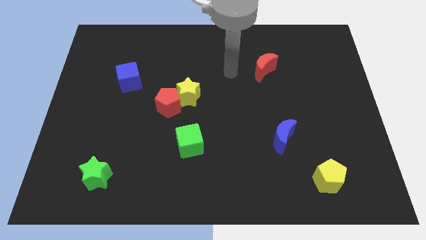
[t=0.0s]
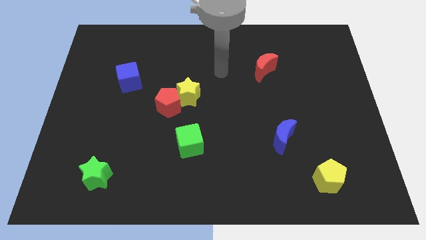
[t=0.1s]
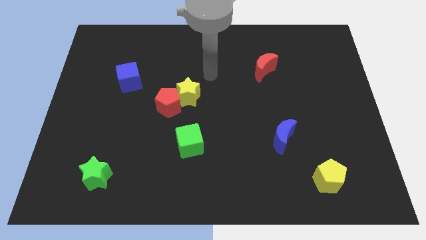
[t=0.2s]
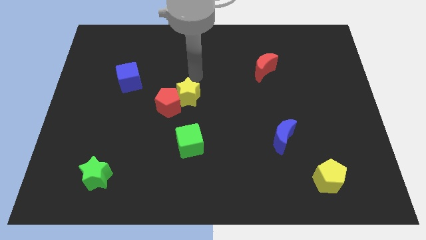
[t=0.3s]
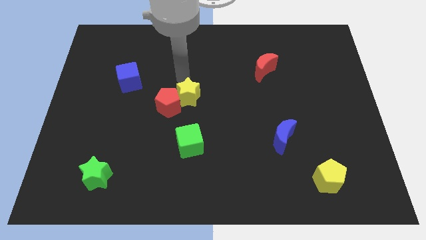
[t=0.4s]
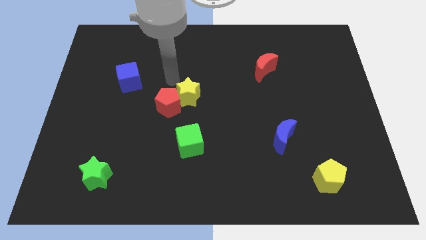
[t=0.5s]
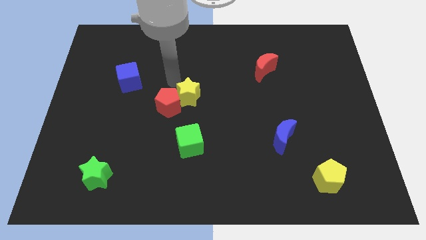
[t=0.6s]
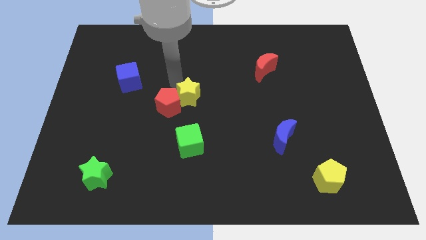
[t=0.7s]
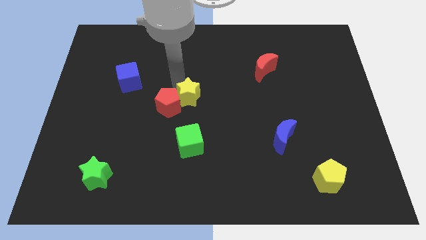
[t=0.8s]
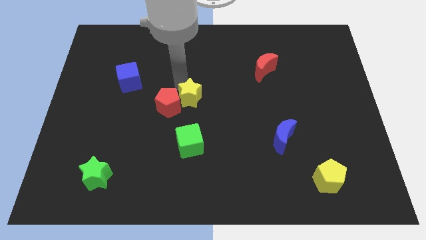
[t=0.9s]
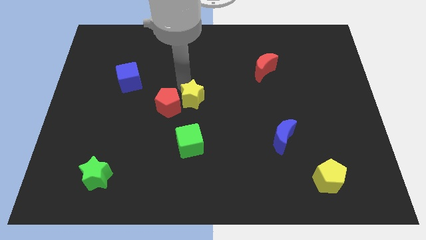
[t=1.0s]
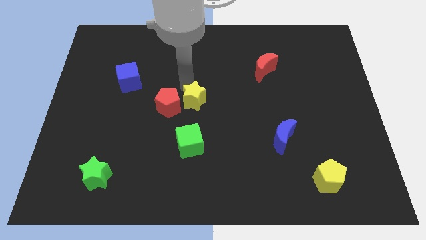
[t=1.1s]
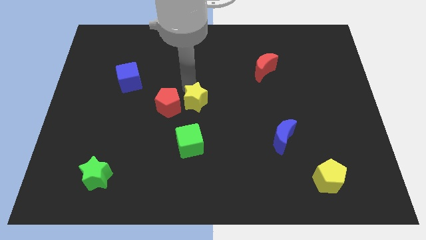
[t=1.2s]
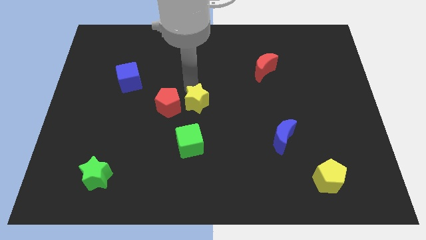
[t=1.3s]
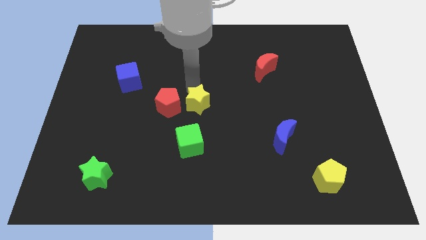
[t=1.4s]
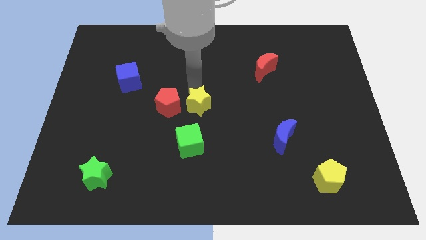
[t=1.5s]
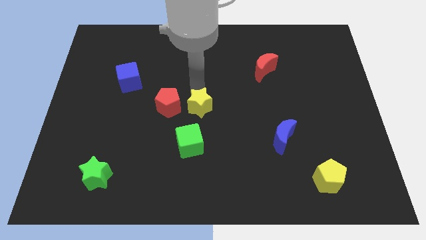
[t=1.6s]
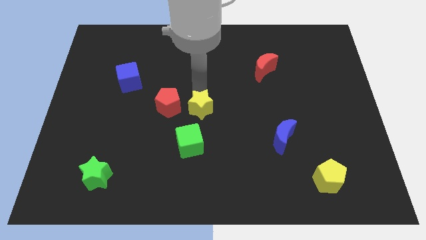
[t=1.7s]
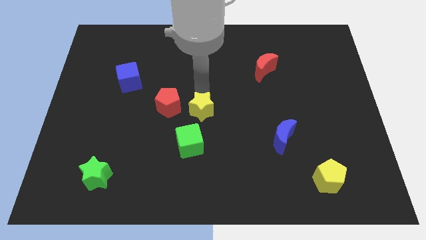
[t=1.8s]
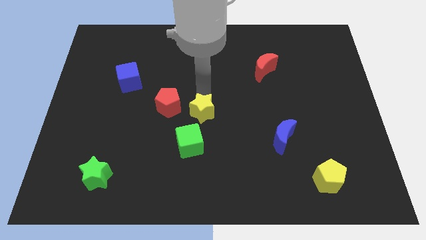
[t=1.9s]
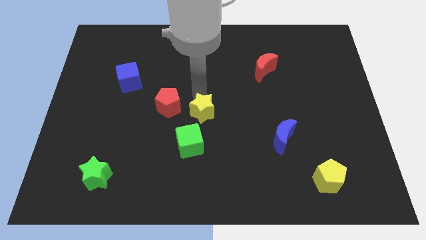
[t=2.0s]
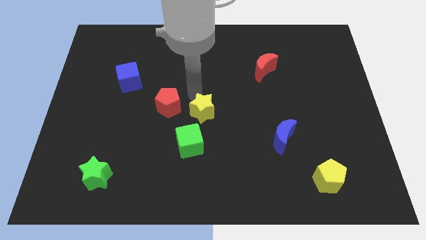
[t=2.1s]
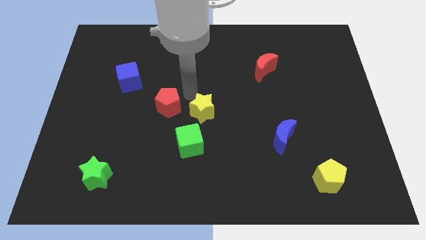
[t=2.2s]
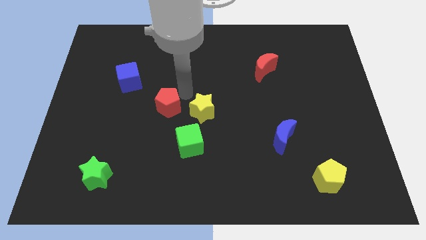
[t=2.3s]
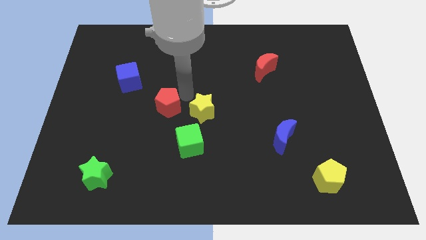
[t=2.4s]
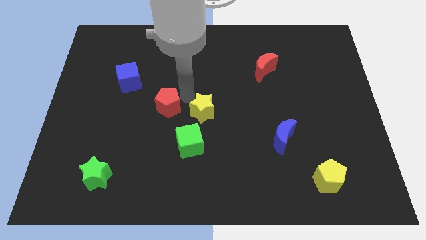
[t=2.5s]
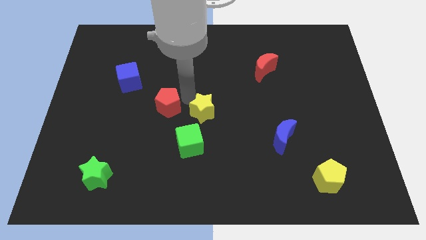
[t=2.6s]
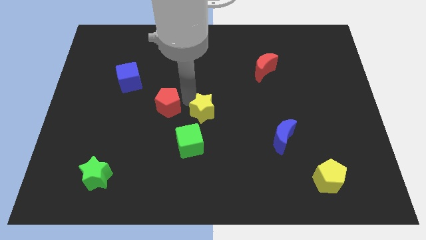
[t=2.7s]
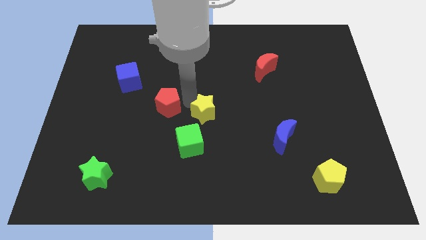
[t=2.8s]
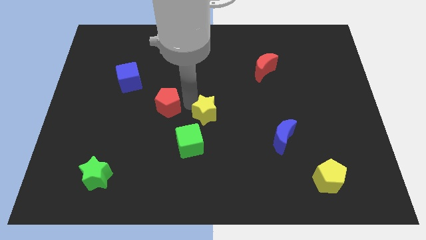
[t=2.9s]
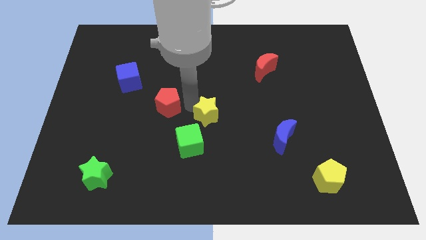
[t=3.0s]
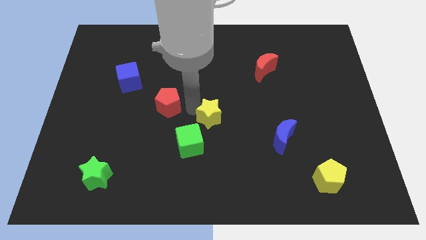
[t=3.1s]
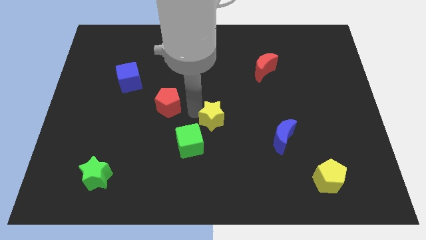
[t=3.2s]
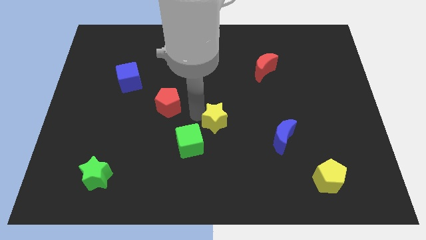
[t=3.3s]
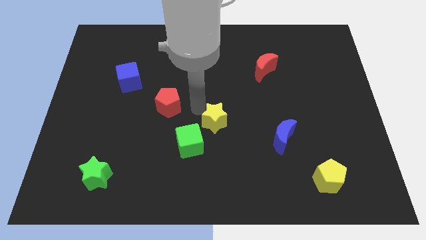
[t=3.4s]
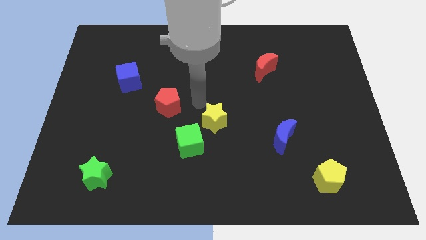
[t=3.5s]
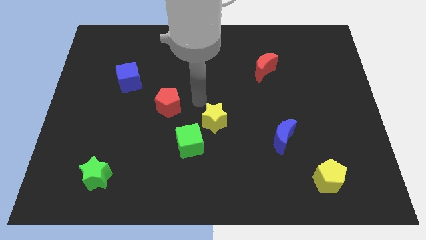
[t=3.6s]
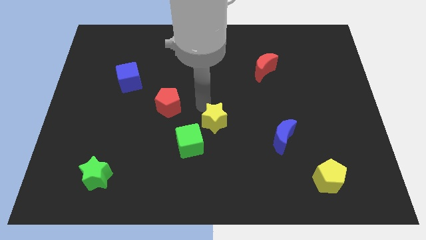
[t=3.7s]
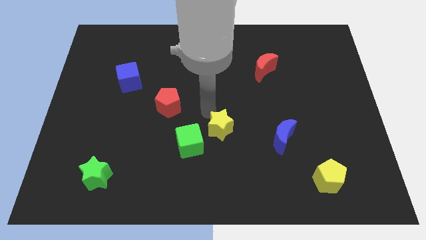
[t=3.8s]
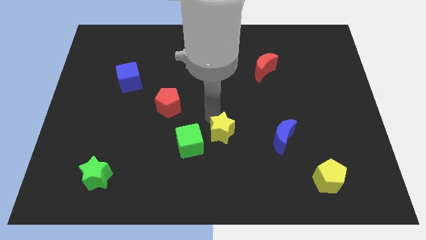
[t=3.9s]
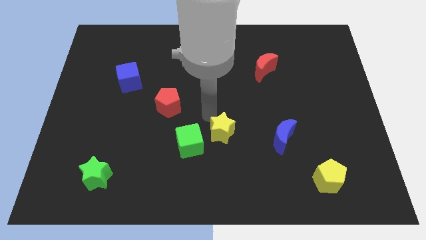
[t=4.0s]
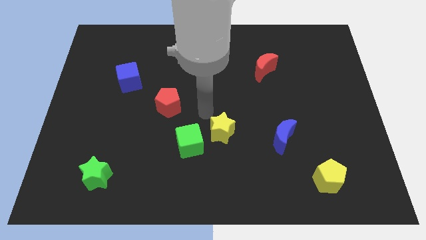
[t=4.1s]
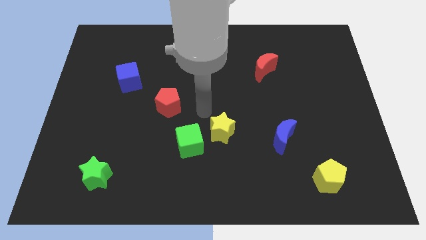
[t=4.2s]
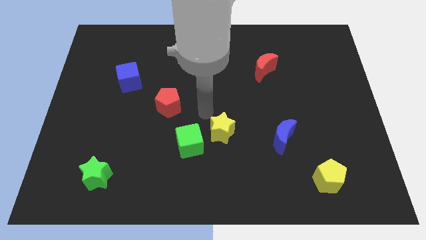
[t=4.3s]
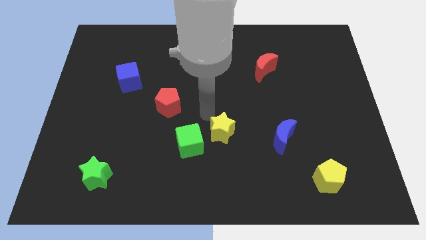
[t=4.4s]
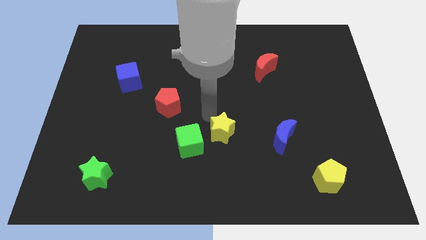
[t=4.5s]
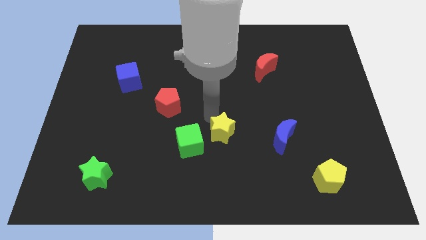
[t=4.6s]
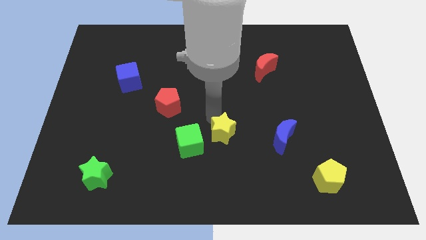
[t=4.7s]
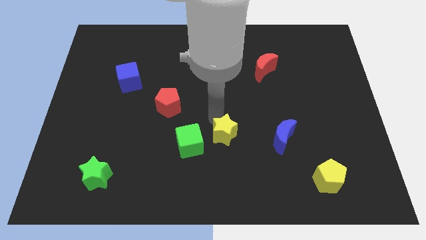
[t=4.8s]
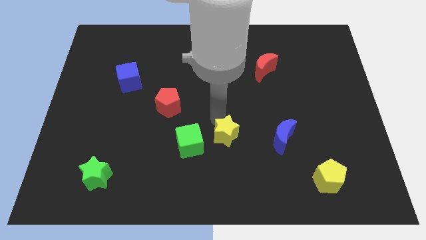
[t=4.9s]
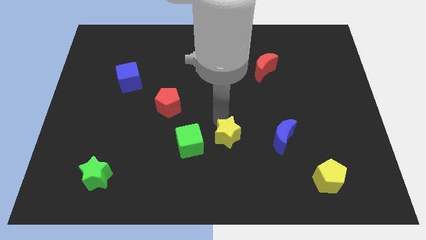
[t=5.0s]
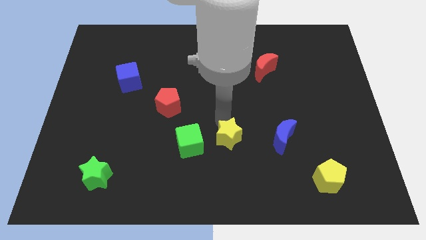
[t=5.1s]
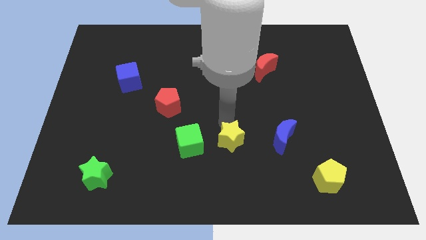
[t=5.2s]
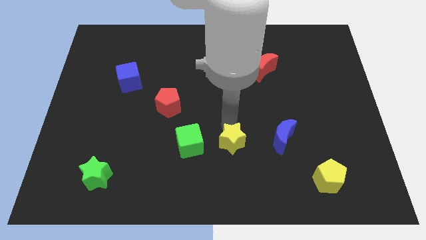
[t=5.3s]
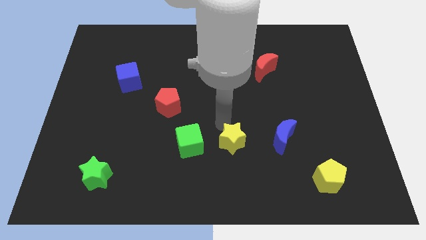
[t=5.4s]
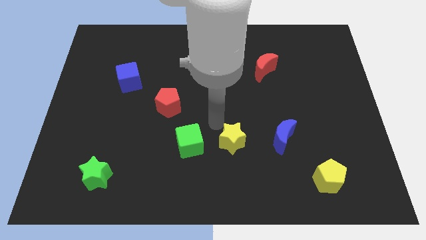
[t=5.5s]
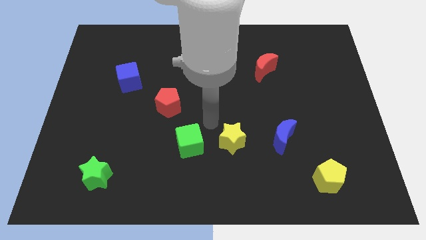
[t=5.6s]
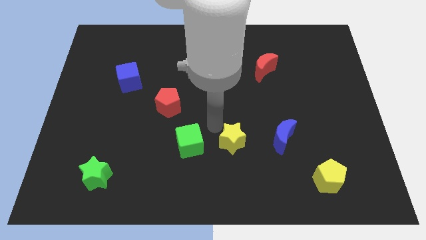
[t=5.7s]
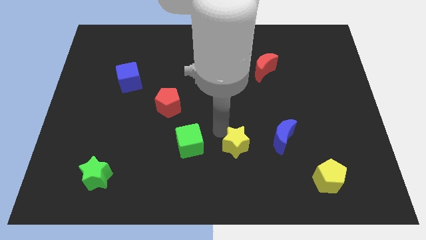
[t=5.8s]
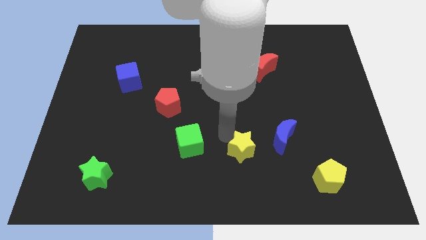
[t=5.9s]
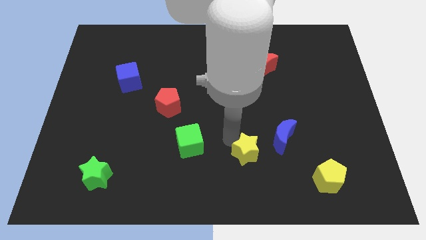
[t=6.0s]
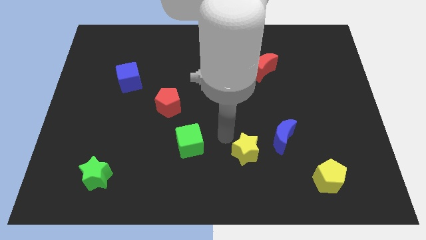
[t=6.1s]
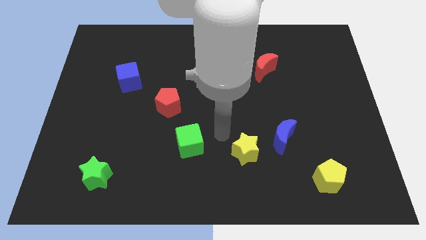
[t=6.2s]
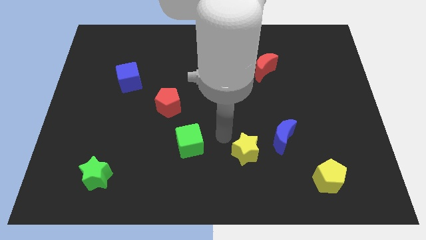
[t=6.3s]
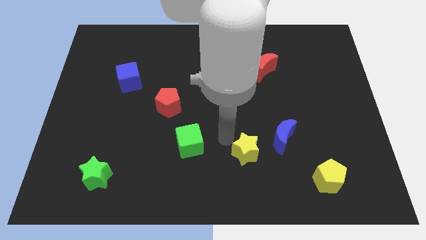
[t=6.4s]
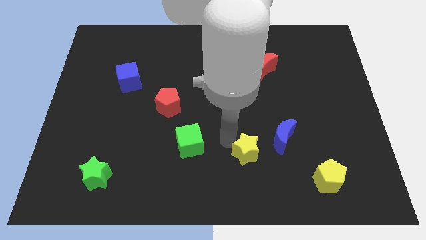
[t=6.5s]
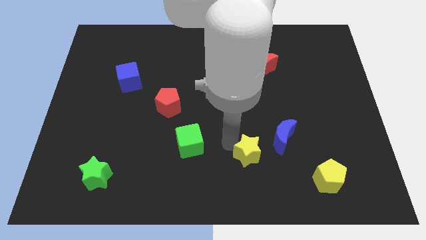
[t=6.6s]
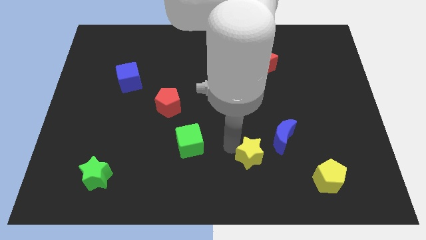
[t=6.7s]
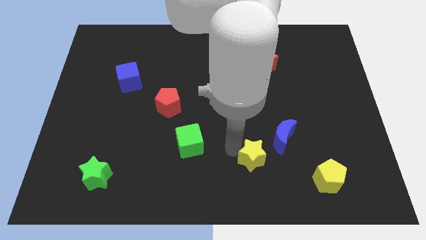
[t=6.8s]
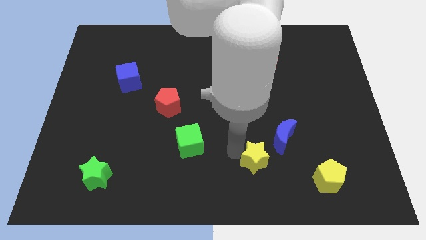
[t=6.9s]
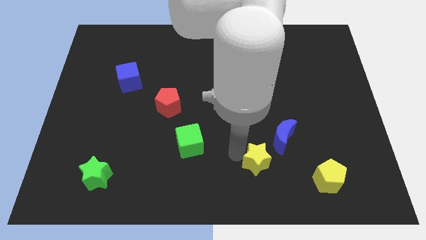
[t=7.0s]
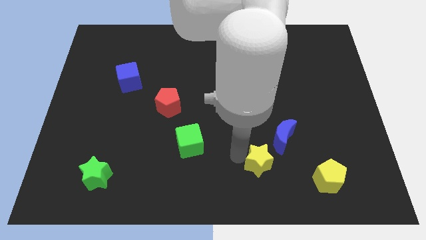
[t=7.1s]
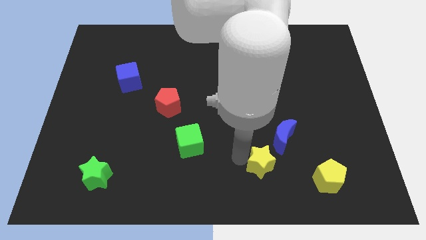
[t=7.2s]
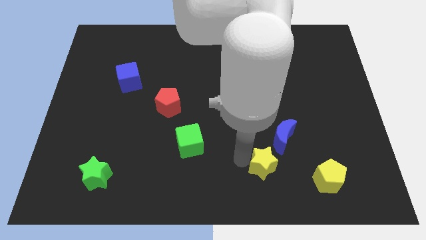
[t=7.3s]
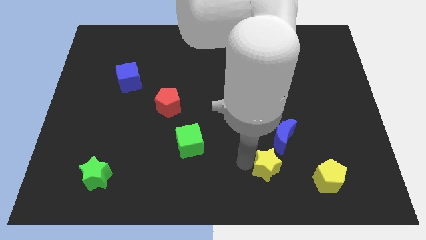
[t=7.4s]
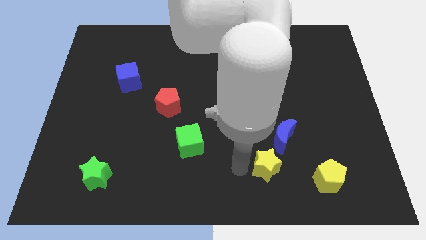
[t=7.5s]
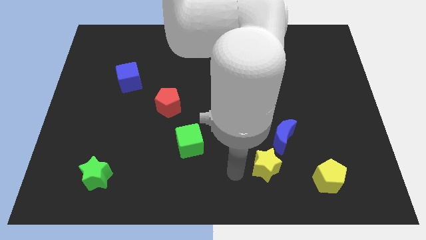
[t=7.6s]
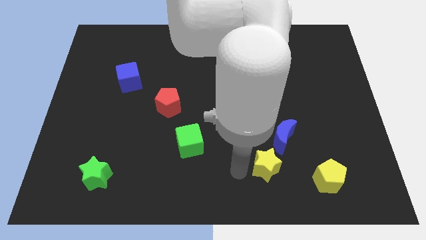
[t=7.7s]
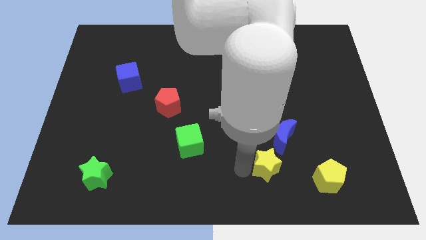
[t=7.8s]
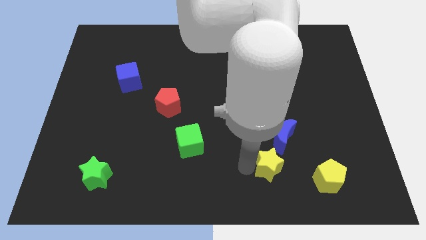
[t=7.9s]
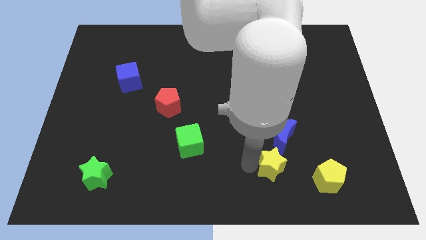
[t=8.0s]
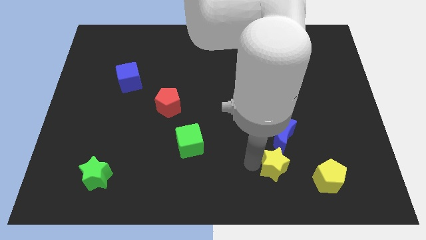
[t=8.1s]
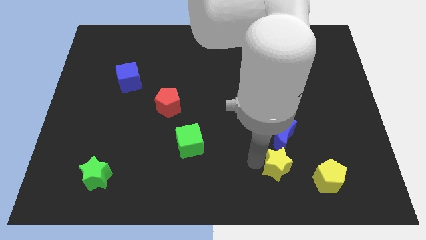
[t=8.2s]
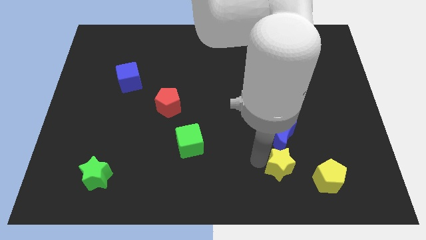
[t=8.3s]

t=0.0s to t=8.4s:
slide the yellow star diagonally up and to the left of the yellow pentagon
